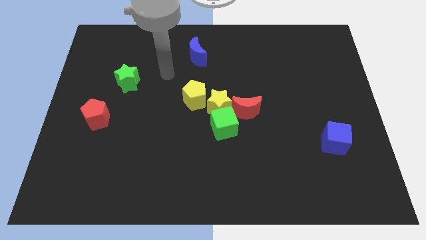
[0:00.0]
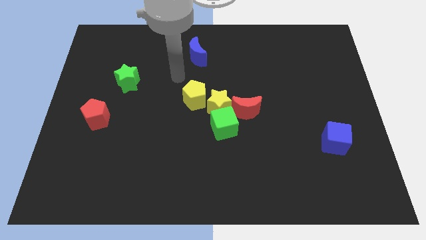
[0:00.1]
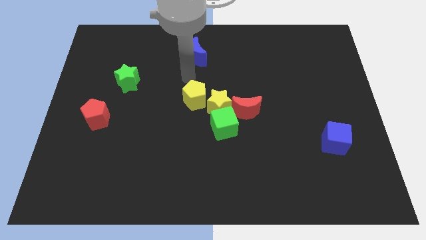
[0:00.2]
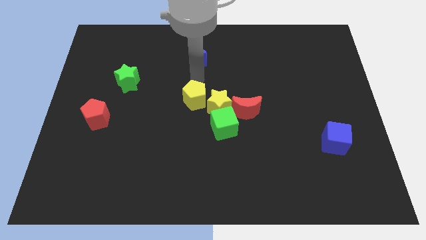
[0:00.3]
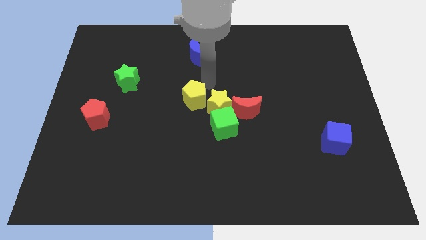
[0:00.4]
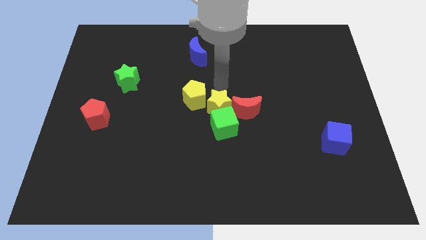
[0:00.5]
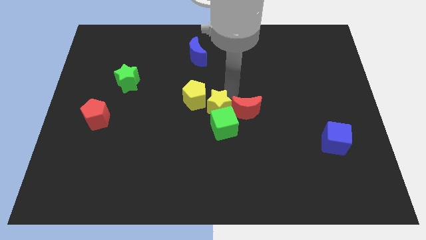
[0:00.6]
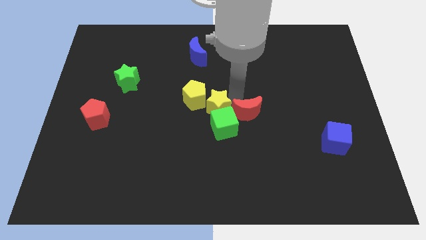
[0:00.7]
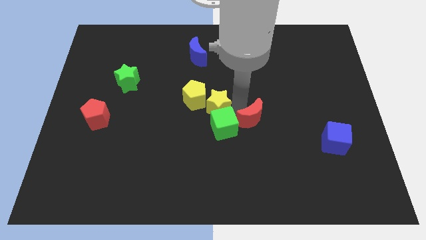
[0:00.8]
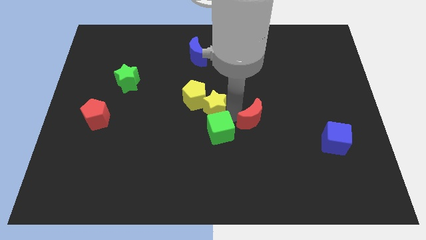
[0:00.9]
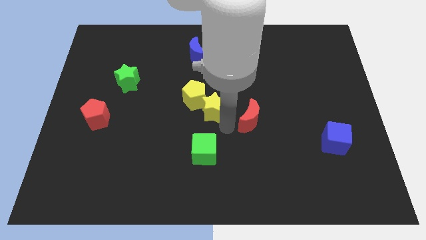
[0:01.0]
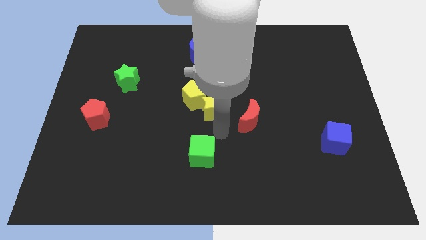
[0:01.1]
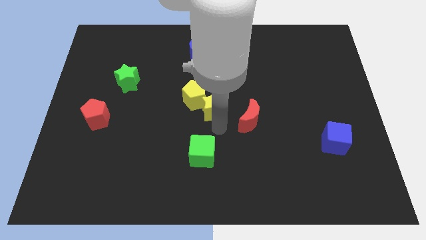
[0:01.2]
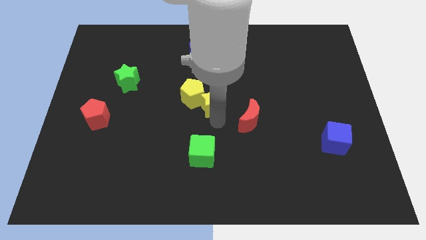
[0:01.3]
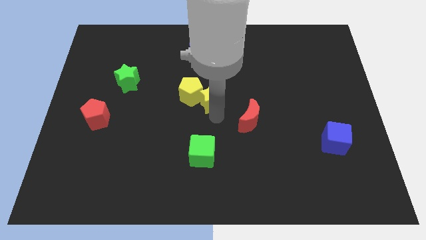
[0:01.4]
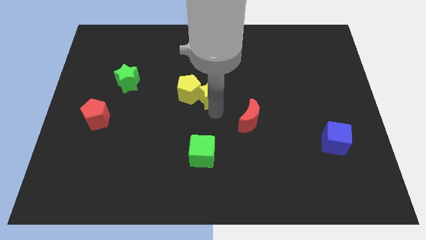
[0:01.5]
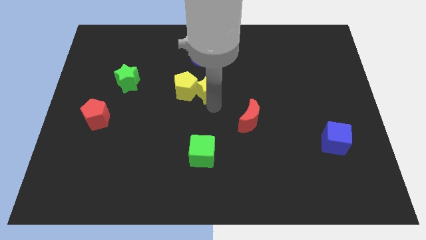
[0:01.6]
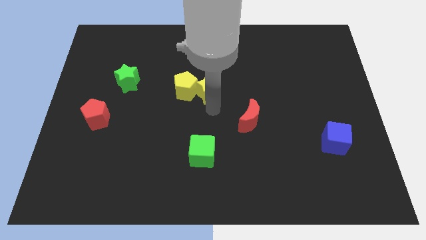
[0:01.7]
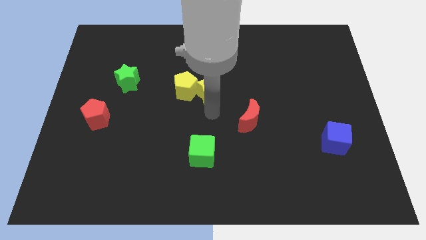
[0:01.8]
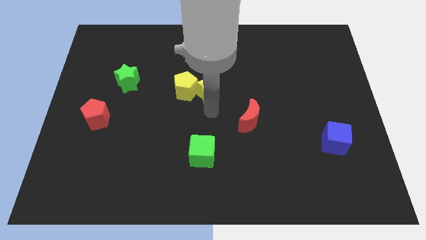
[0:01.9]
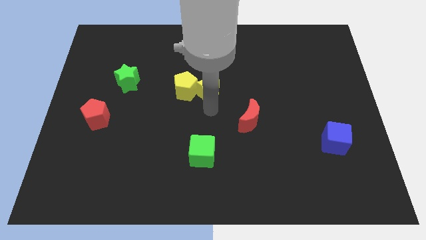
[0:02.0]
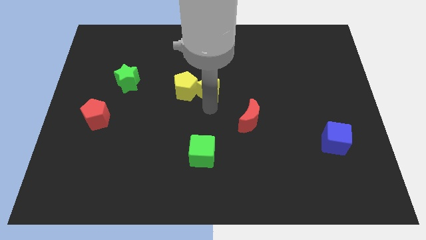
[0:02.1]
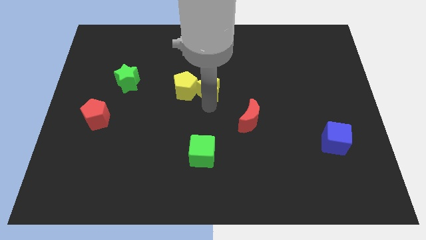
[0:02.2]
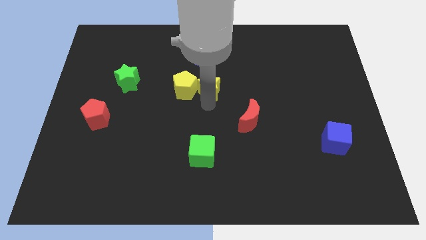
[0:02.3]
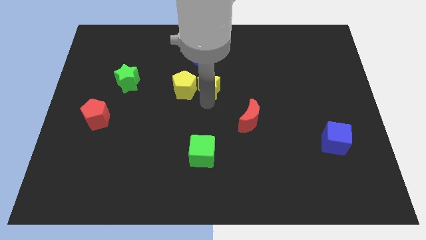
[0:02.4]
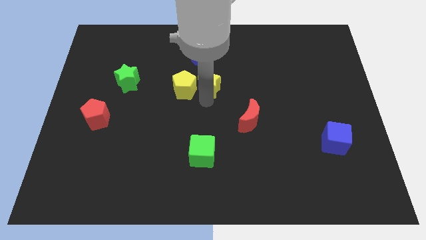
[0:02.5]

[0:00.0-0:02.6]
pull the yellow star apart from the green cube, yellow pentagon, and red moon

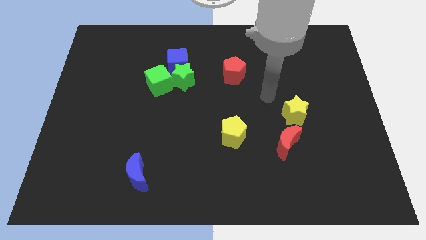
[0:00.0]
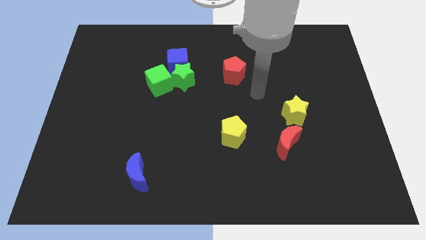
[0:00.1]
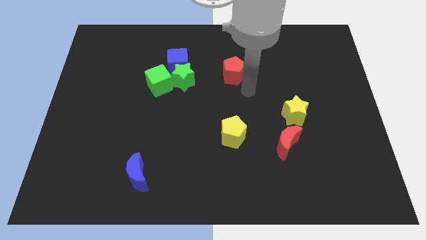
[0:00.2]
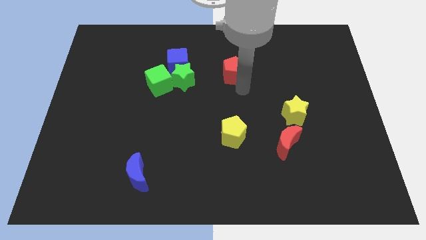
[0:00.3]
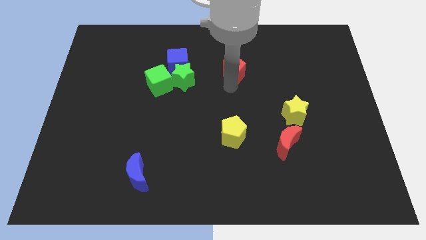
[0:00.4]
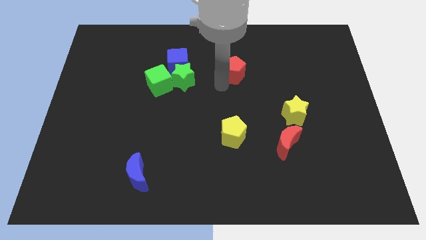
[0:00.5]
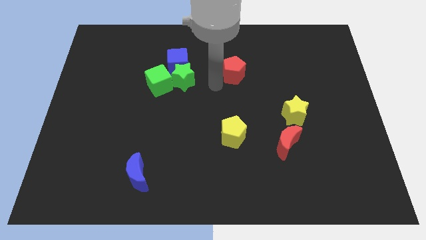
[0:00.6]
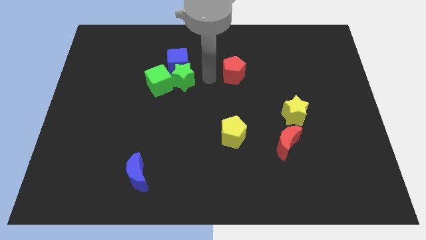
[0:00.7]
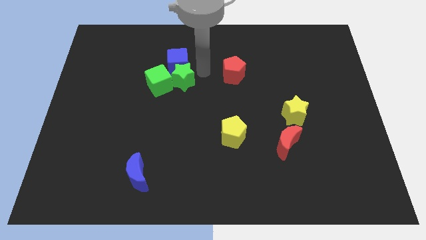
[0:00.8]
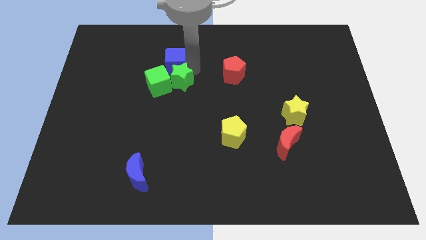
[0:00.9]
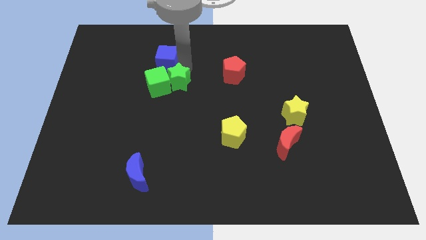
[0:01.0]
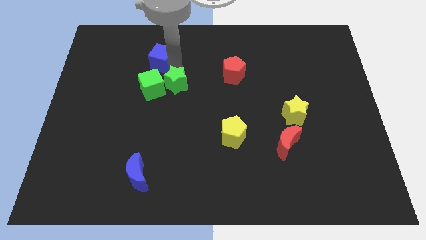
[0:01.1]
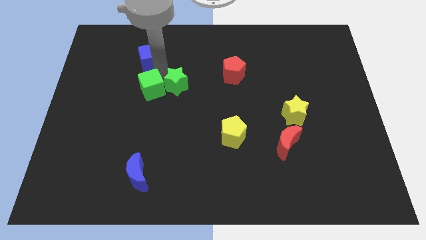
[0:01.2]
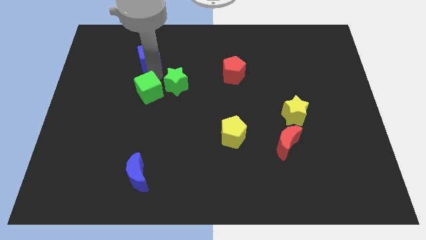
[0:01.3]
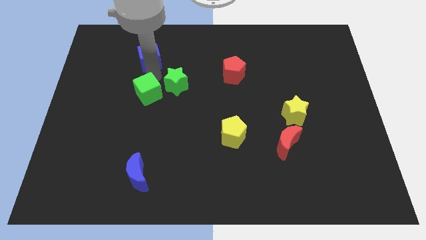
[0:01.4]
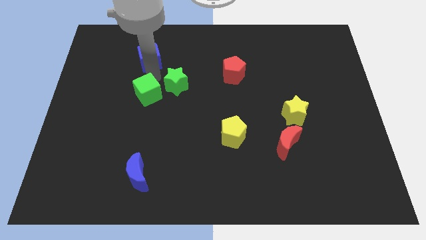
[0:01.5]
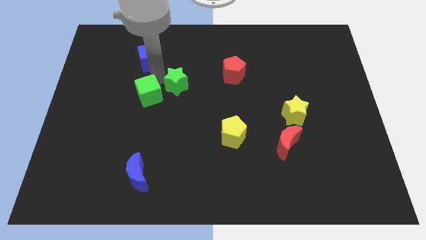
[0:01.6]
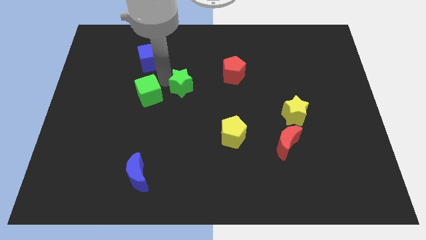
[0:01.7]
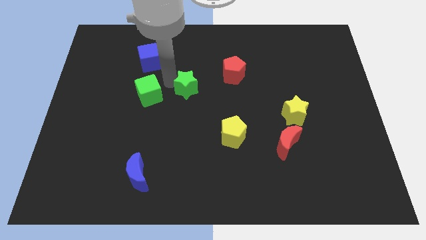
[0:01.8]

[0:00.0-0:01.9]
move the green star away from the blue cube and green cube

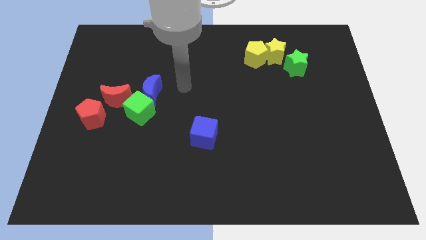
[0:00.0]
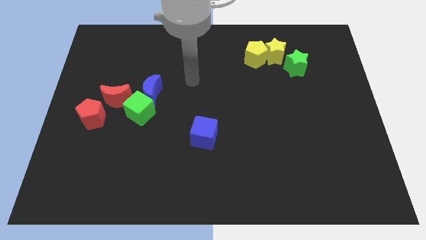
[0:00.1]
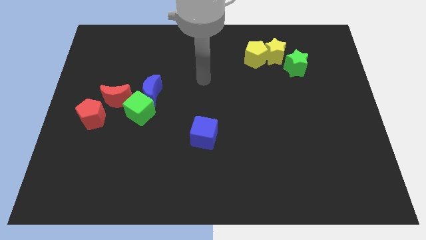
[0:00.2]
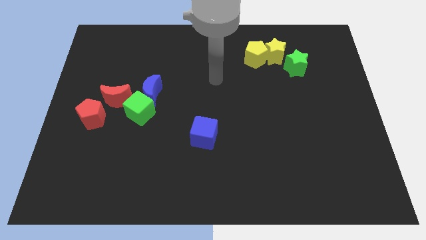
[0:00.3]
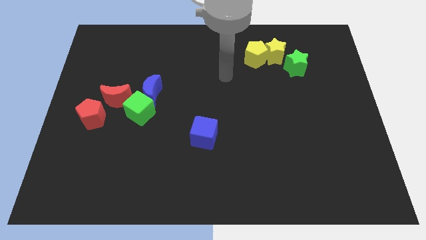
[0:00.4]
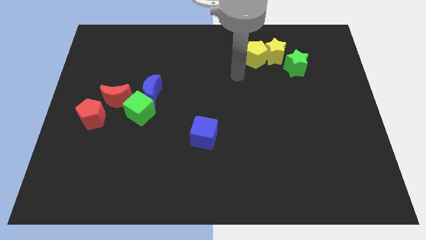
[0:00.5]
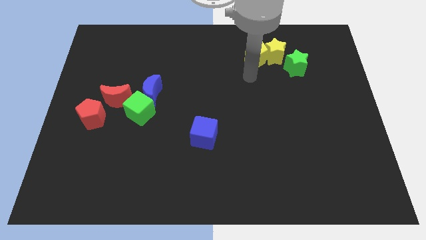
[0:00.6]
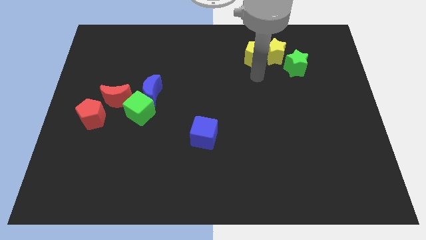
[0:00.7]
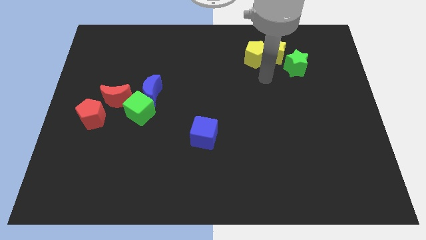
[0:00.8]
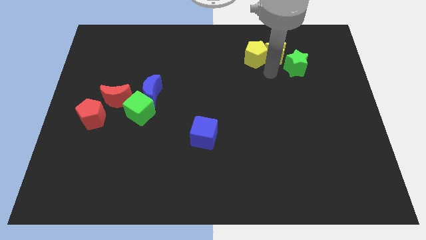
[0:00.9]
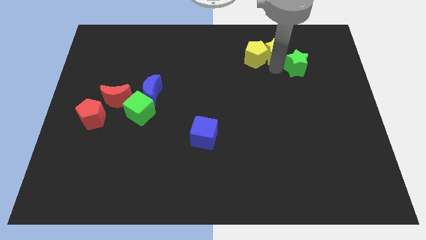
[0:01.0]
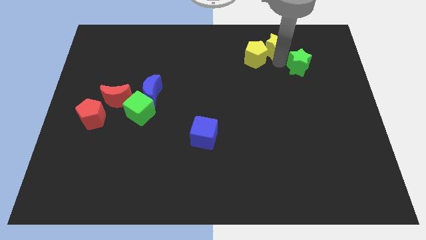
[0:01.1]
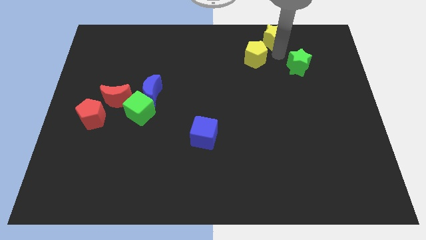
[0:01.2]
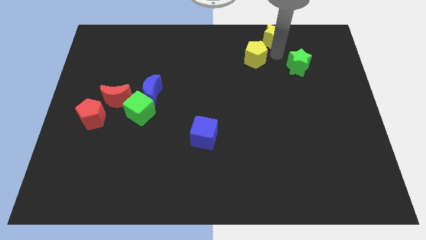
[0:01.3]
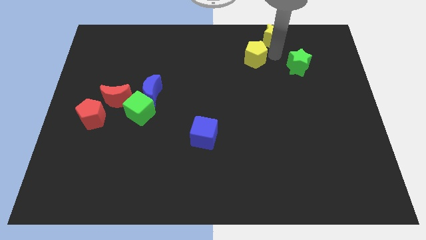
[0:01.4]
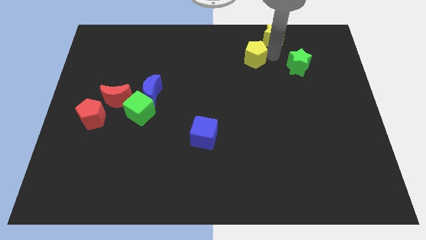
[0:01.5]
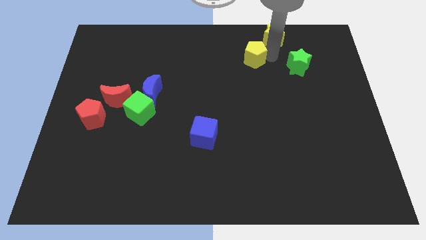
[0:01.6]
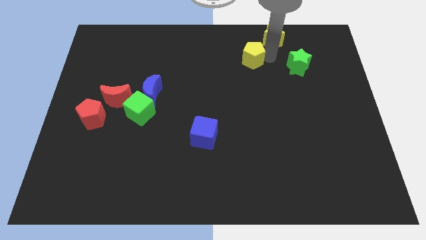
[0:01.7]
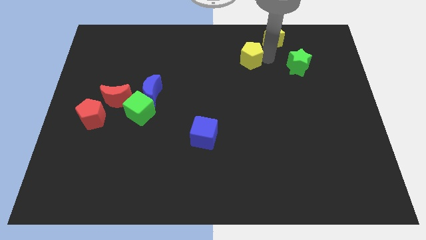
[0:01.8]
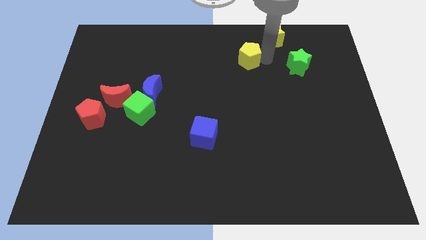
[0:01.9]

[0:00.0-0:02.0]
move the yellow pentagon away from the yellow star

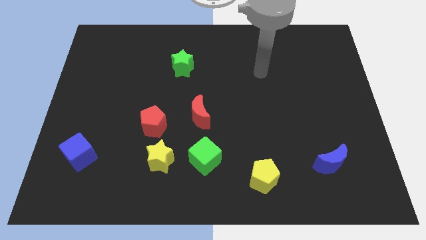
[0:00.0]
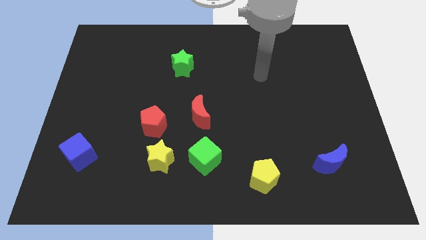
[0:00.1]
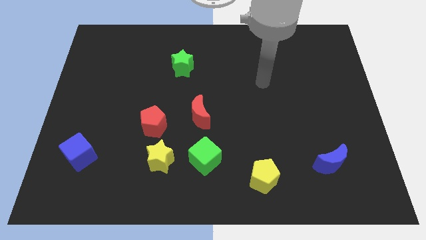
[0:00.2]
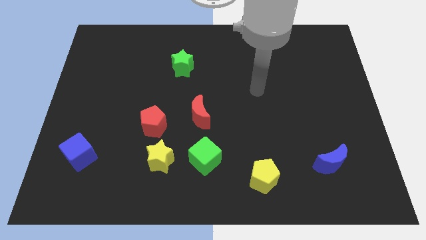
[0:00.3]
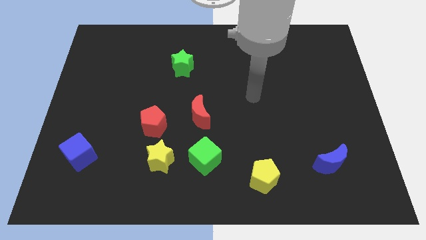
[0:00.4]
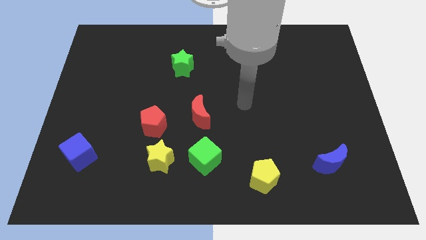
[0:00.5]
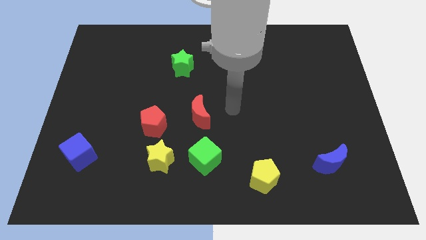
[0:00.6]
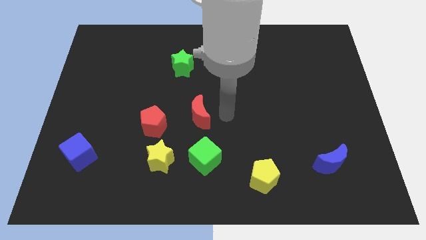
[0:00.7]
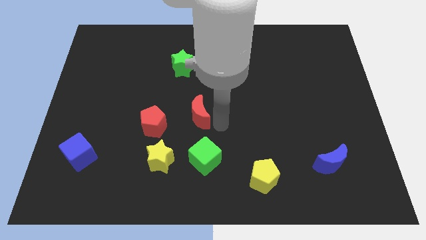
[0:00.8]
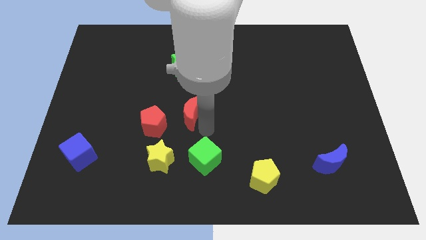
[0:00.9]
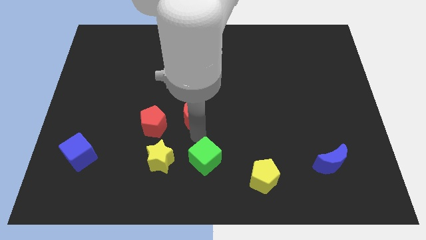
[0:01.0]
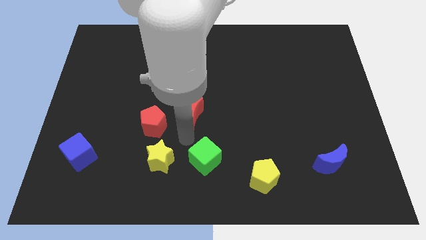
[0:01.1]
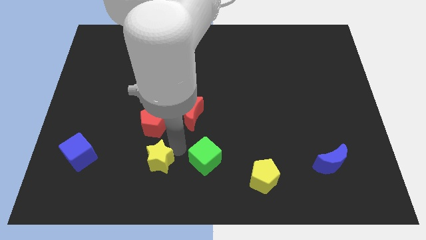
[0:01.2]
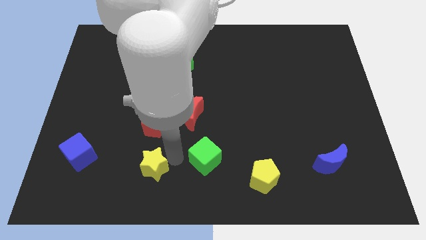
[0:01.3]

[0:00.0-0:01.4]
move the green cube away from the yellow star

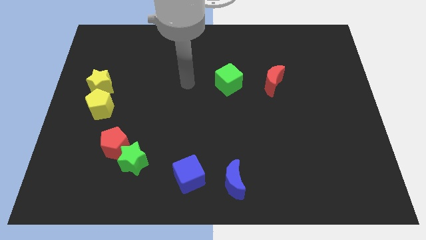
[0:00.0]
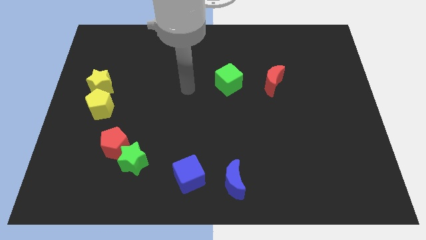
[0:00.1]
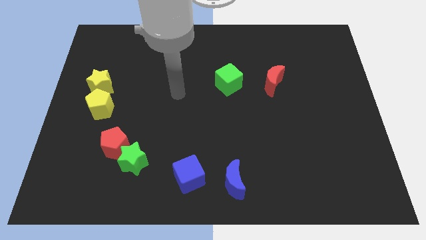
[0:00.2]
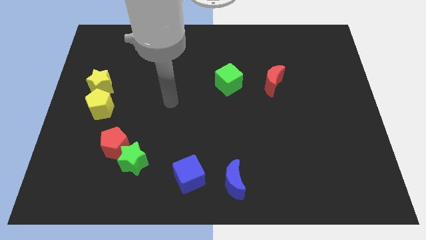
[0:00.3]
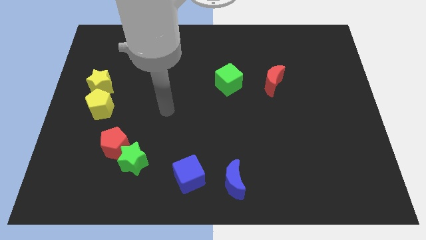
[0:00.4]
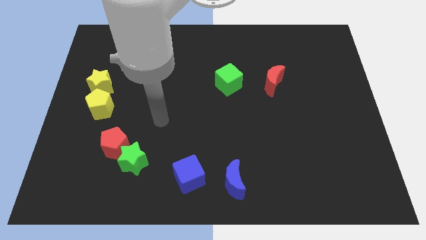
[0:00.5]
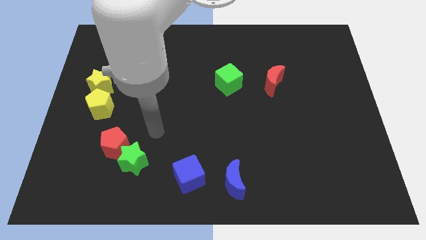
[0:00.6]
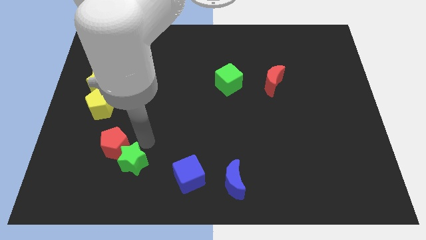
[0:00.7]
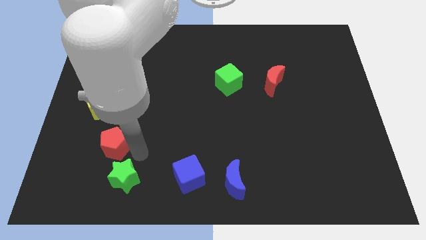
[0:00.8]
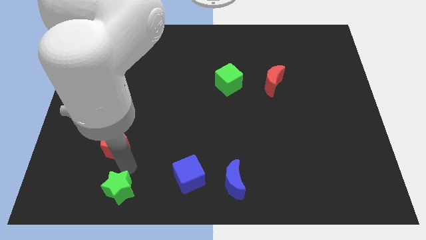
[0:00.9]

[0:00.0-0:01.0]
move the red pentagon away from the green star

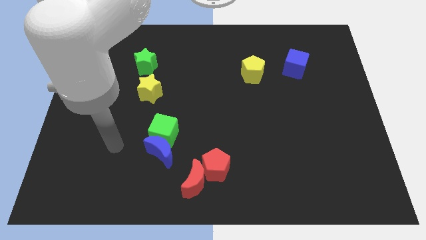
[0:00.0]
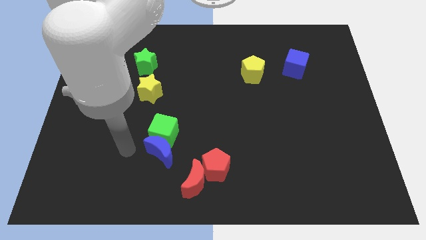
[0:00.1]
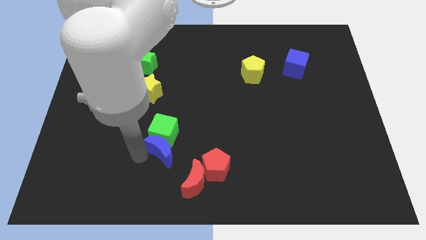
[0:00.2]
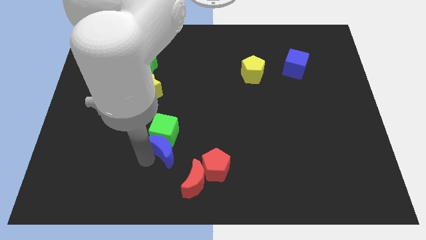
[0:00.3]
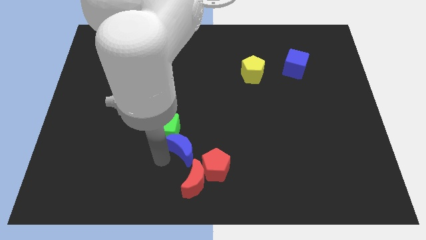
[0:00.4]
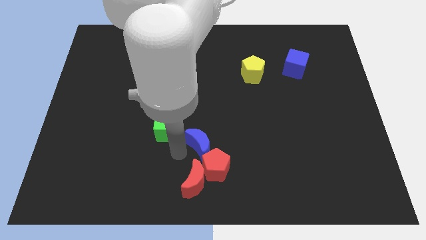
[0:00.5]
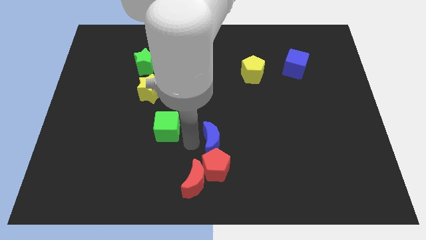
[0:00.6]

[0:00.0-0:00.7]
pull the green cube apart from the blue moon
